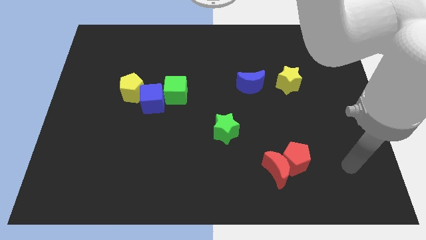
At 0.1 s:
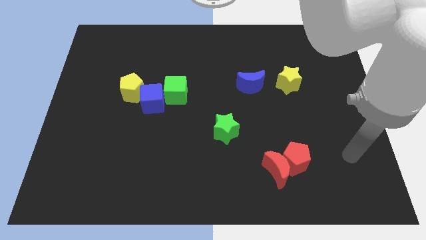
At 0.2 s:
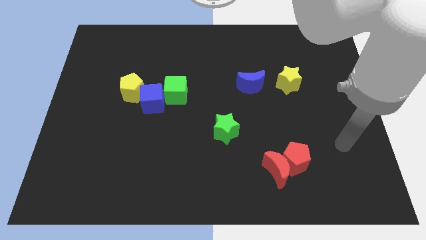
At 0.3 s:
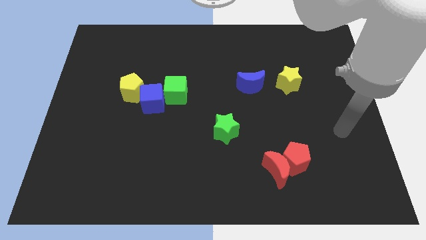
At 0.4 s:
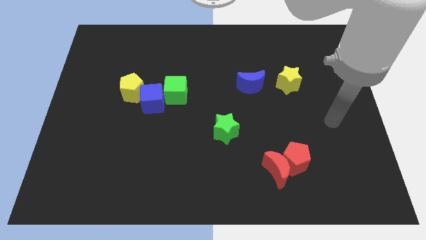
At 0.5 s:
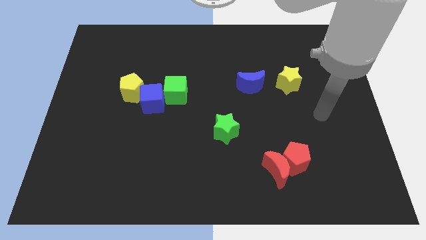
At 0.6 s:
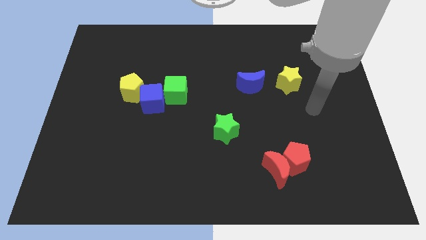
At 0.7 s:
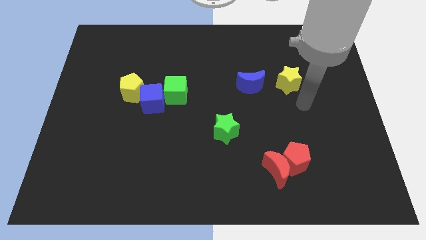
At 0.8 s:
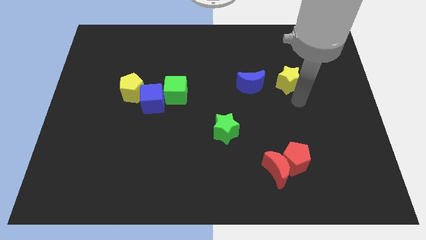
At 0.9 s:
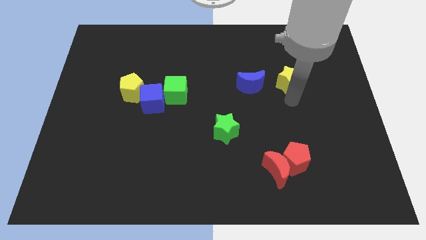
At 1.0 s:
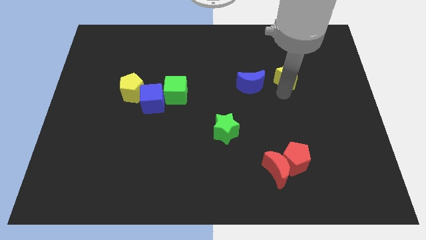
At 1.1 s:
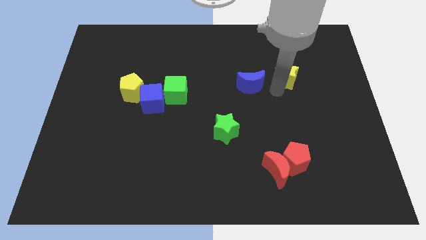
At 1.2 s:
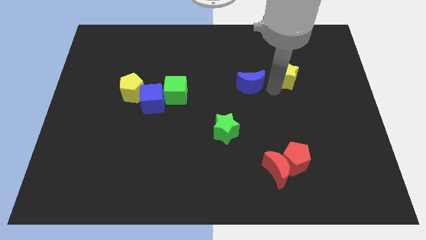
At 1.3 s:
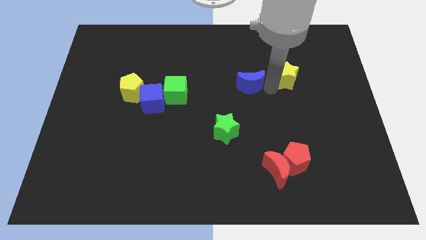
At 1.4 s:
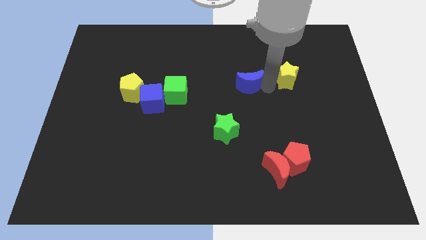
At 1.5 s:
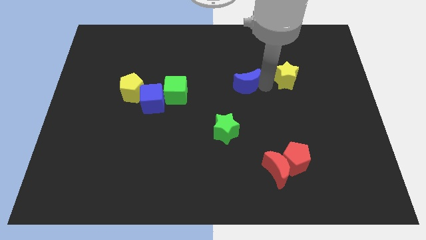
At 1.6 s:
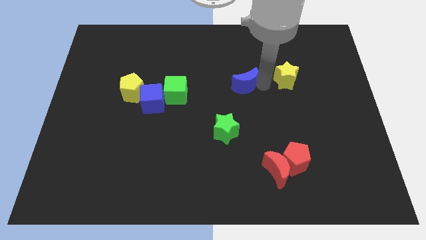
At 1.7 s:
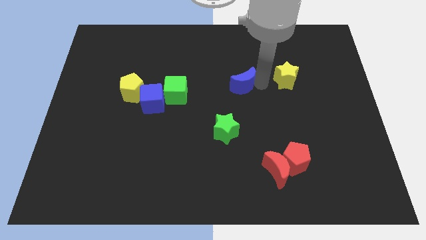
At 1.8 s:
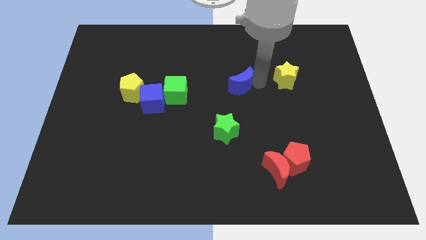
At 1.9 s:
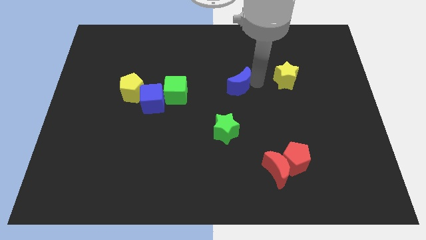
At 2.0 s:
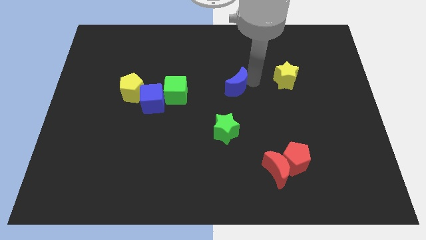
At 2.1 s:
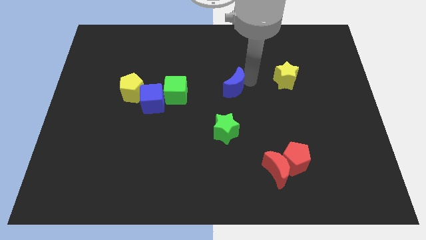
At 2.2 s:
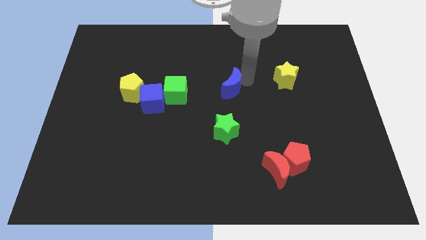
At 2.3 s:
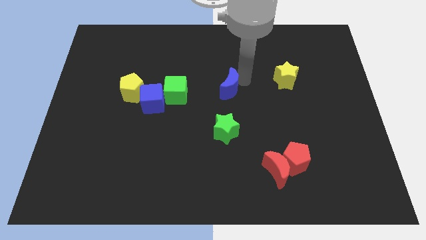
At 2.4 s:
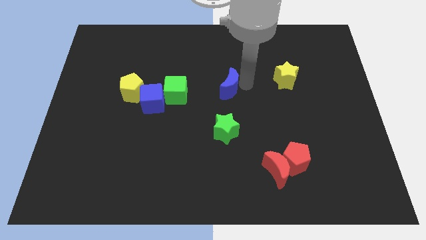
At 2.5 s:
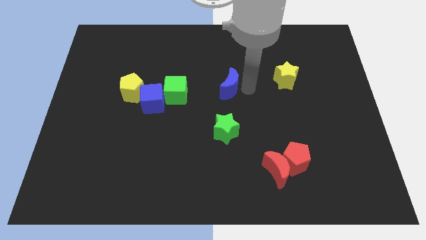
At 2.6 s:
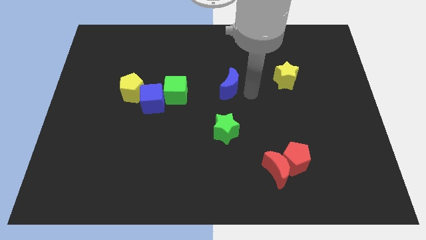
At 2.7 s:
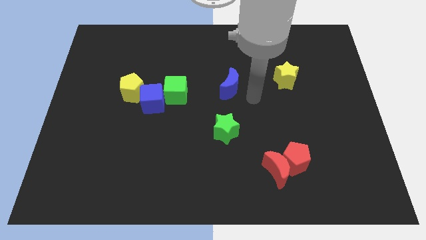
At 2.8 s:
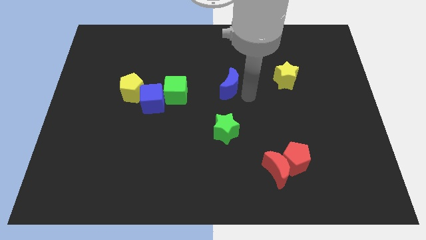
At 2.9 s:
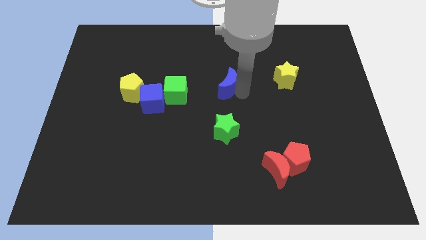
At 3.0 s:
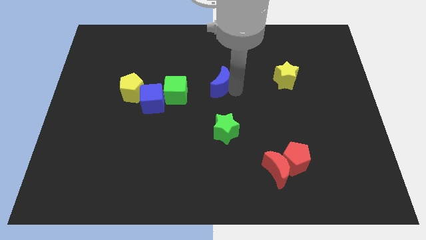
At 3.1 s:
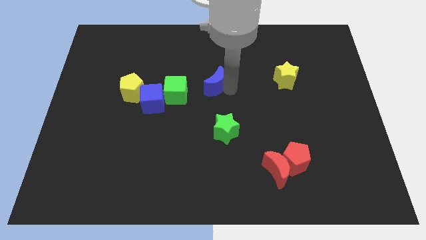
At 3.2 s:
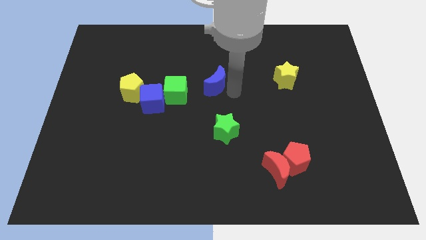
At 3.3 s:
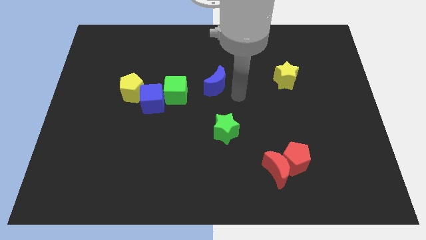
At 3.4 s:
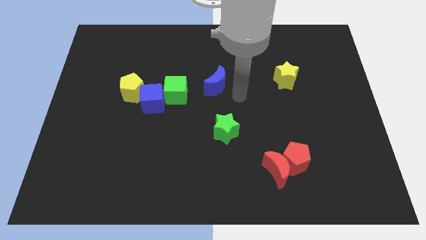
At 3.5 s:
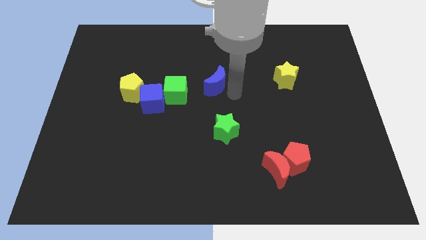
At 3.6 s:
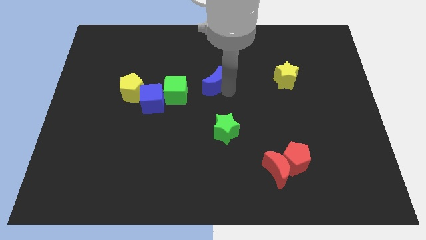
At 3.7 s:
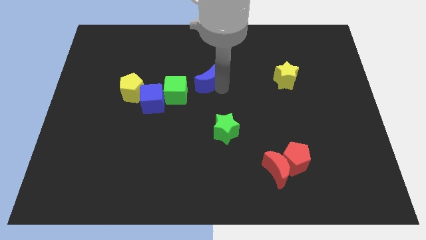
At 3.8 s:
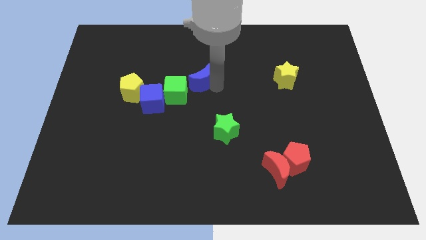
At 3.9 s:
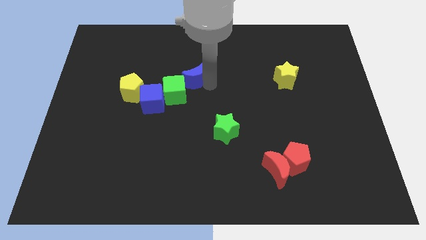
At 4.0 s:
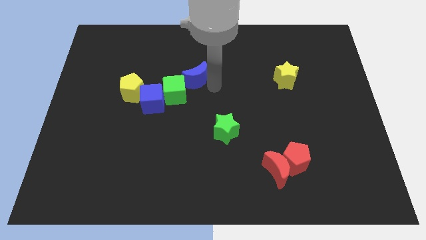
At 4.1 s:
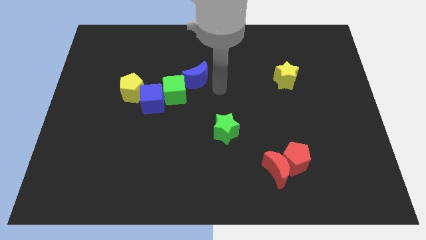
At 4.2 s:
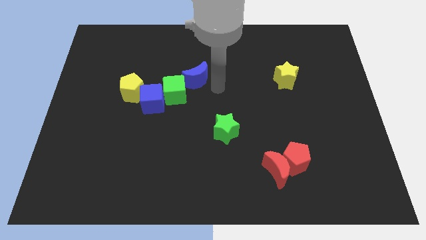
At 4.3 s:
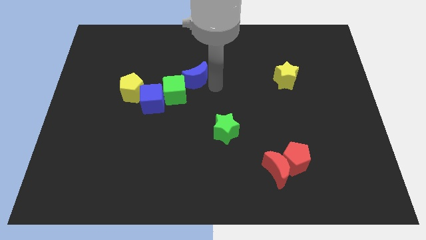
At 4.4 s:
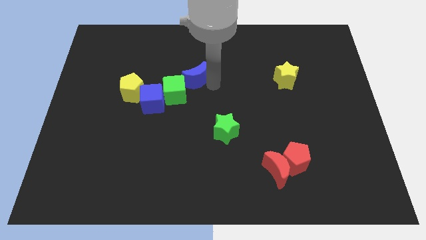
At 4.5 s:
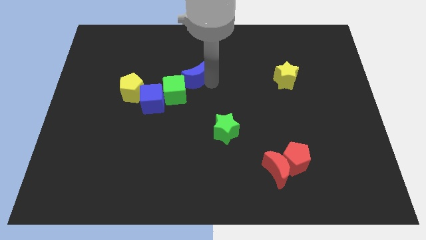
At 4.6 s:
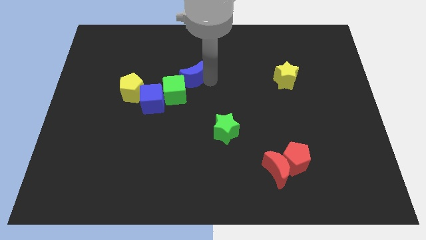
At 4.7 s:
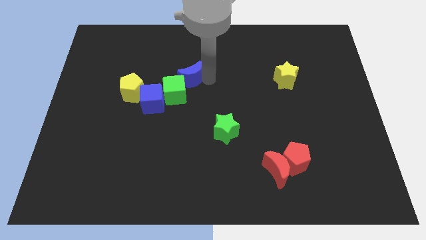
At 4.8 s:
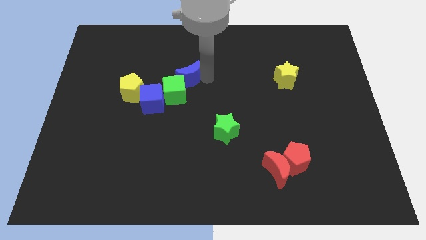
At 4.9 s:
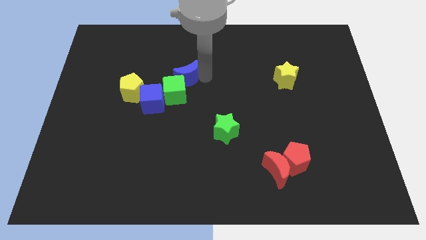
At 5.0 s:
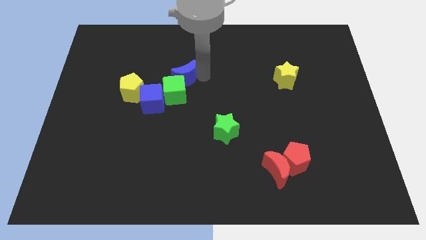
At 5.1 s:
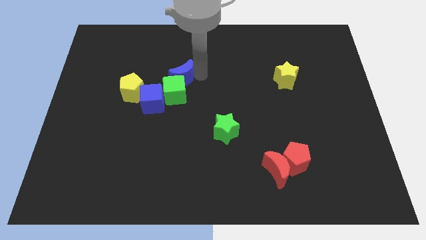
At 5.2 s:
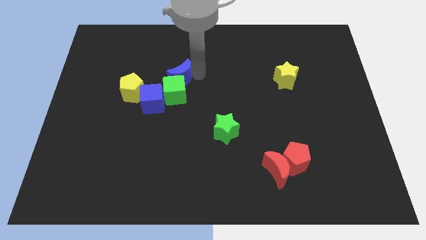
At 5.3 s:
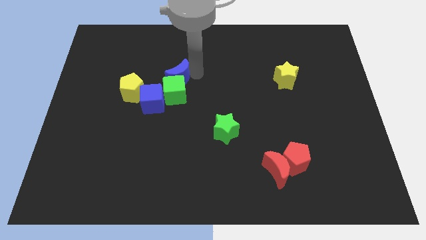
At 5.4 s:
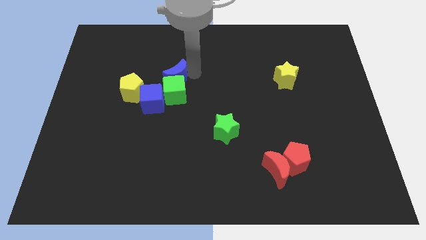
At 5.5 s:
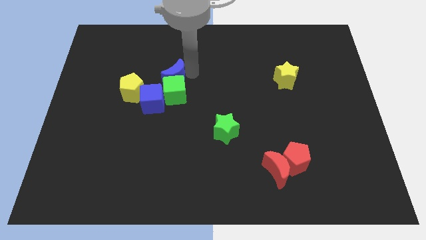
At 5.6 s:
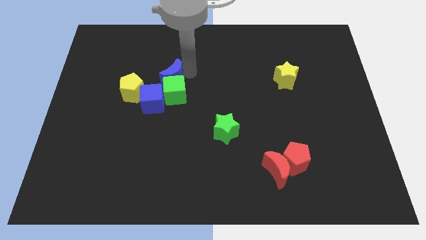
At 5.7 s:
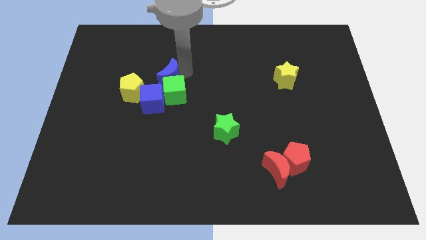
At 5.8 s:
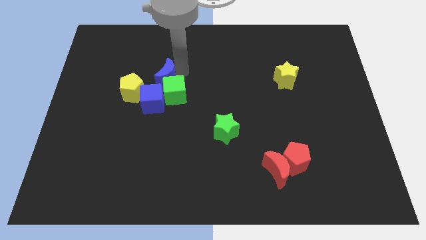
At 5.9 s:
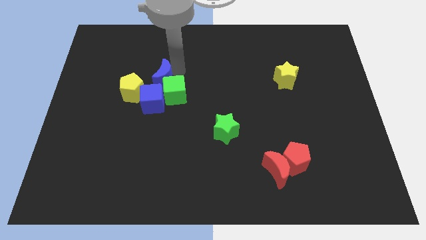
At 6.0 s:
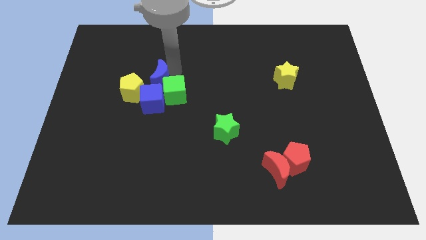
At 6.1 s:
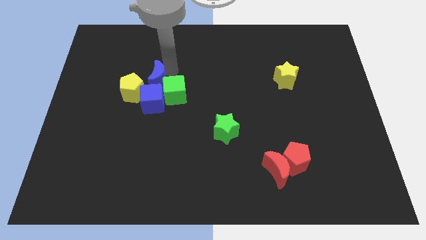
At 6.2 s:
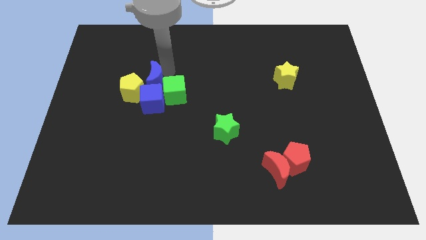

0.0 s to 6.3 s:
slide the blue moon close to the yellow pentagon
